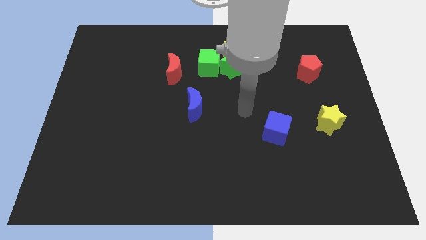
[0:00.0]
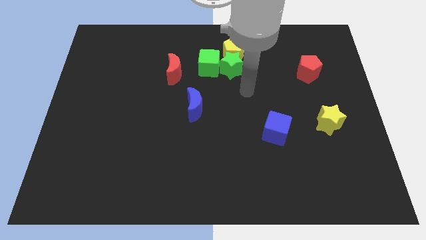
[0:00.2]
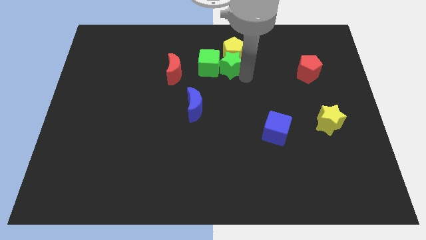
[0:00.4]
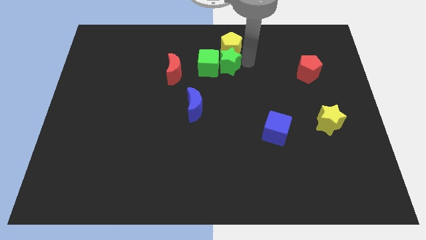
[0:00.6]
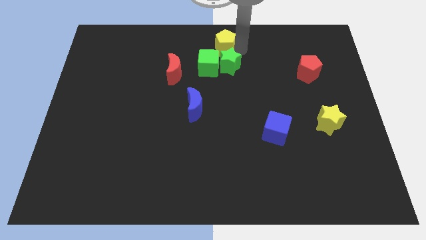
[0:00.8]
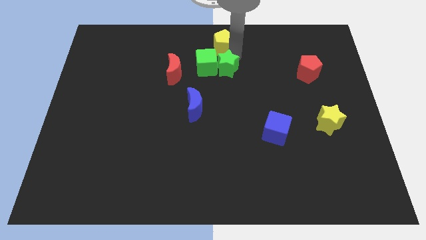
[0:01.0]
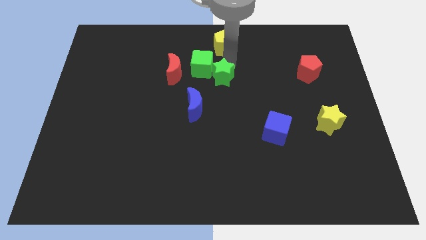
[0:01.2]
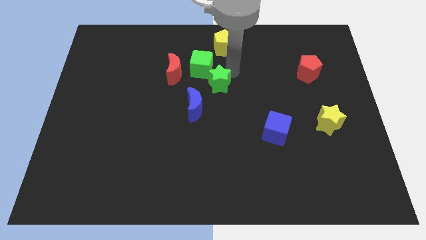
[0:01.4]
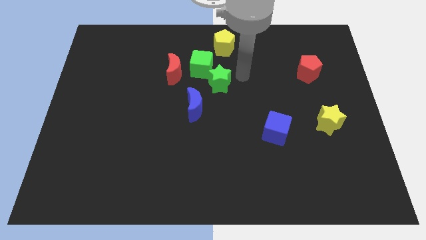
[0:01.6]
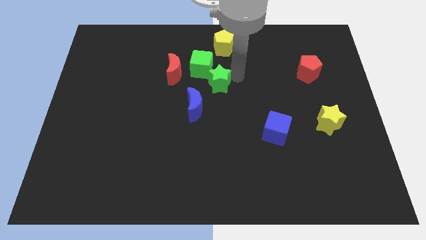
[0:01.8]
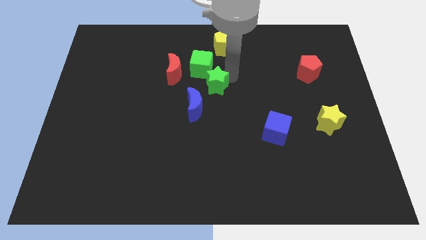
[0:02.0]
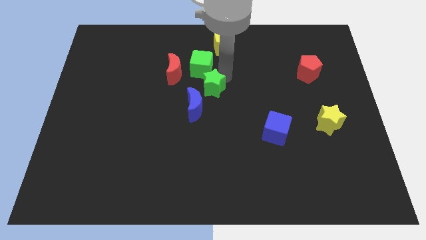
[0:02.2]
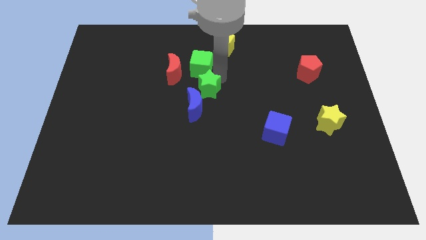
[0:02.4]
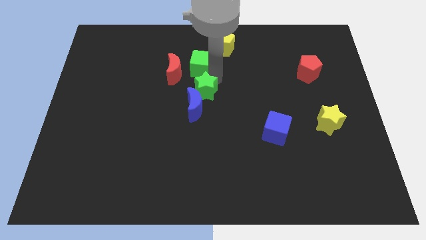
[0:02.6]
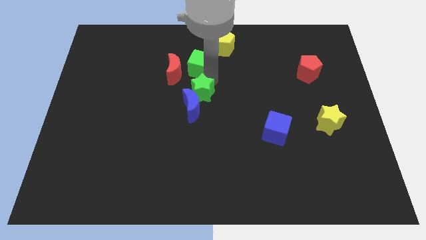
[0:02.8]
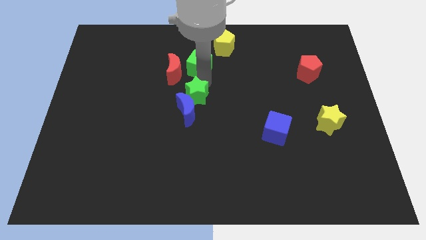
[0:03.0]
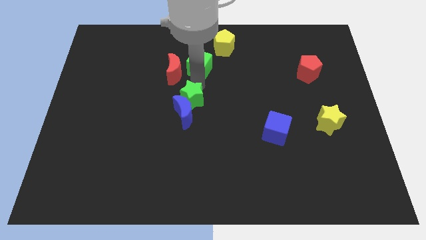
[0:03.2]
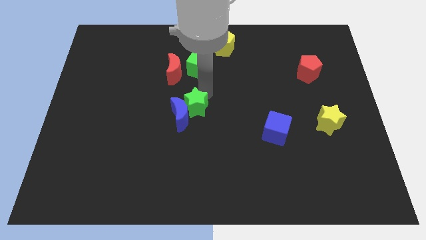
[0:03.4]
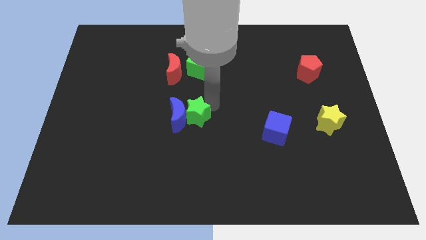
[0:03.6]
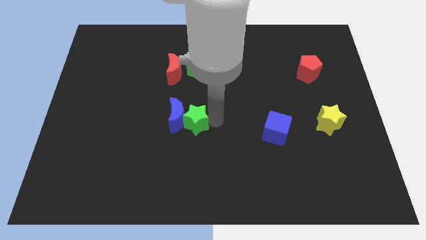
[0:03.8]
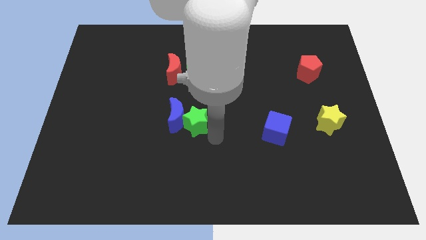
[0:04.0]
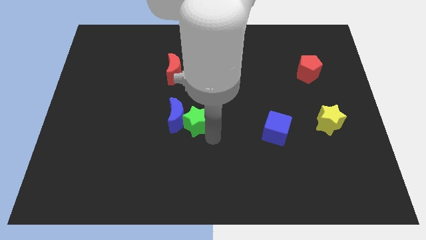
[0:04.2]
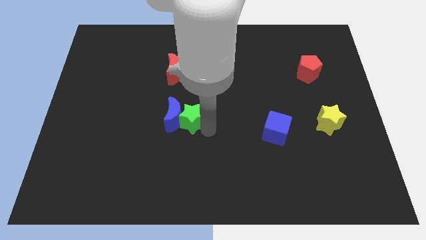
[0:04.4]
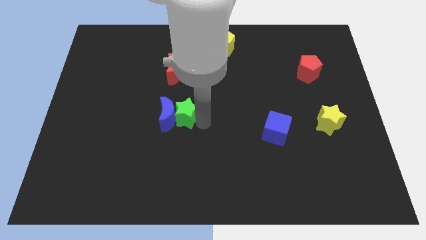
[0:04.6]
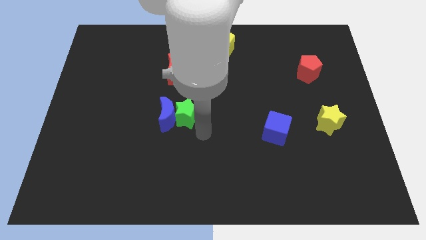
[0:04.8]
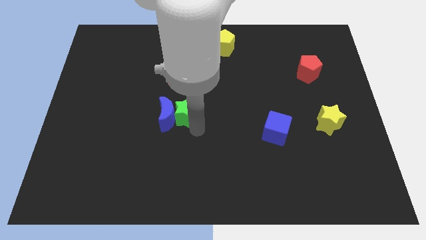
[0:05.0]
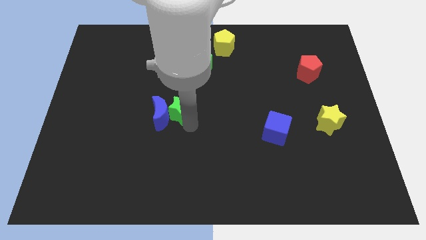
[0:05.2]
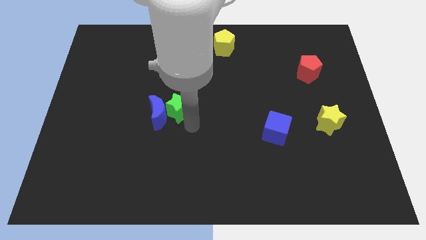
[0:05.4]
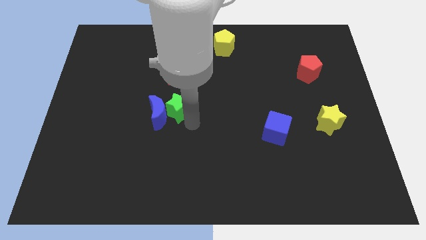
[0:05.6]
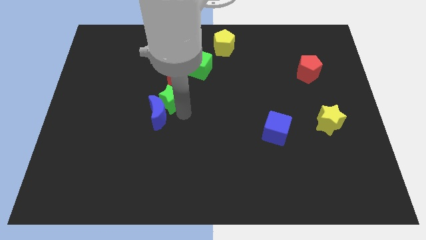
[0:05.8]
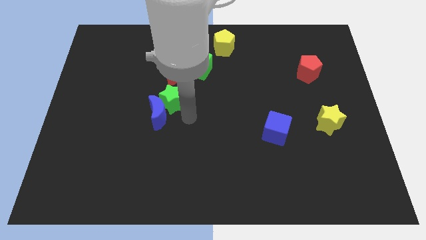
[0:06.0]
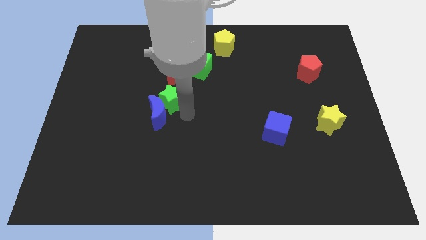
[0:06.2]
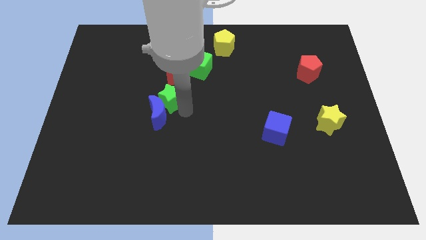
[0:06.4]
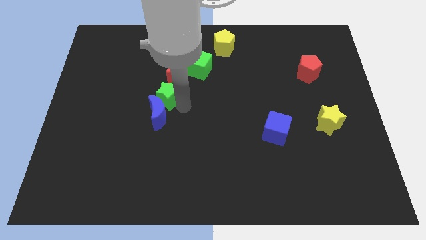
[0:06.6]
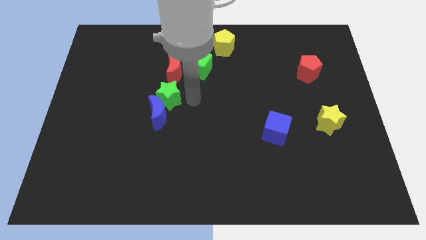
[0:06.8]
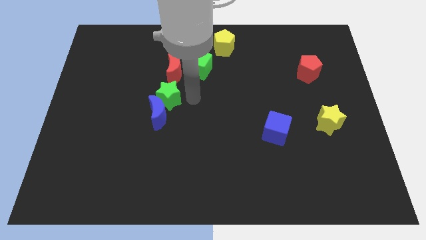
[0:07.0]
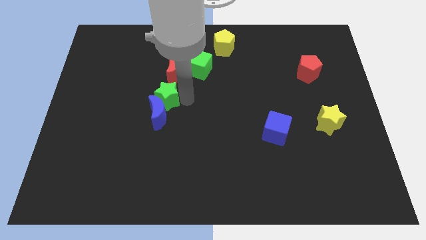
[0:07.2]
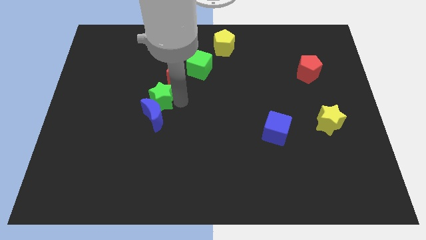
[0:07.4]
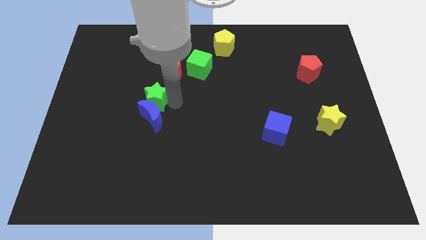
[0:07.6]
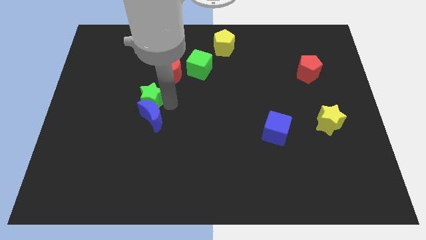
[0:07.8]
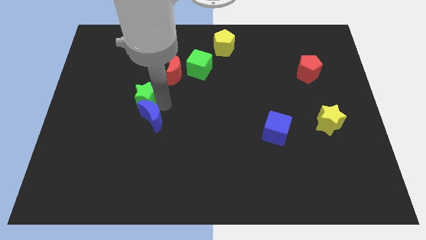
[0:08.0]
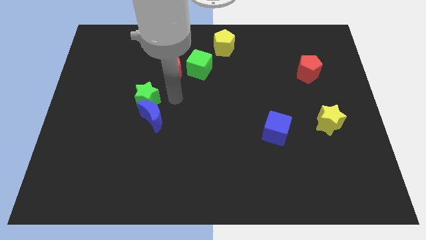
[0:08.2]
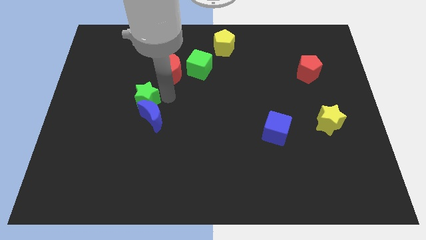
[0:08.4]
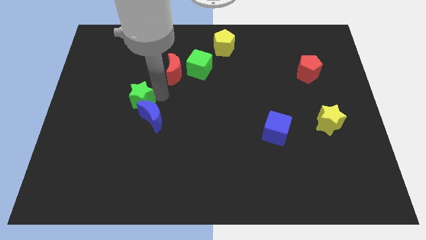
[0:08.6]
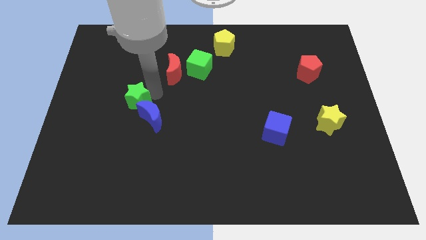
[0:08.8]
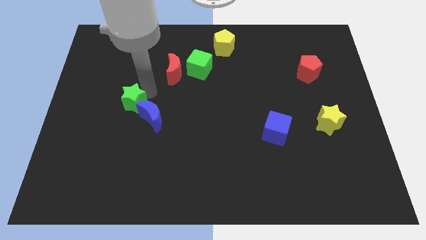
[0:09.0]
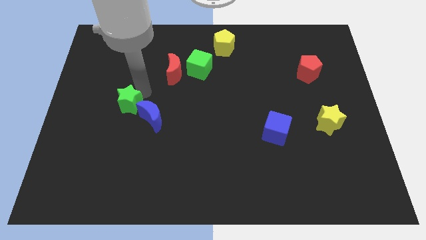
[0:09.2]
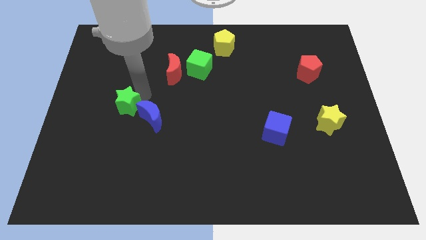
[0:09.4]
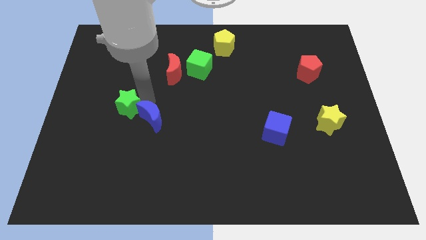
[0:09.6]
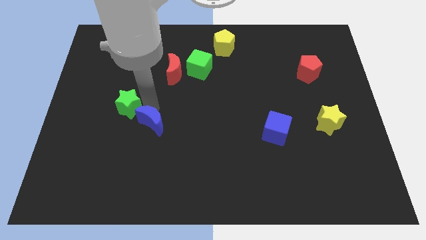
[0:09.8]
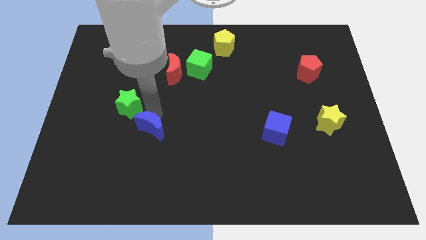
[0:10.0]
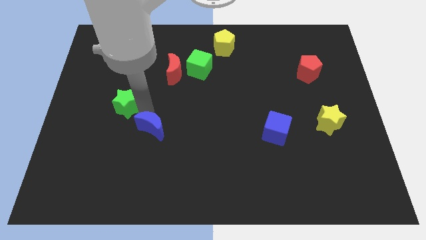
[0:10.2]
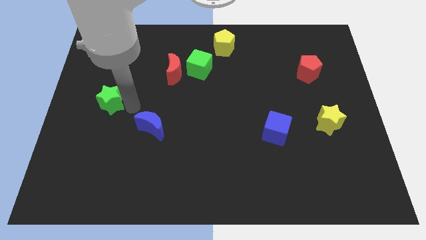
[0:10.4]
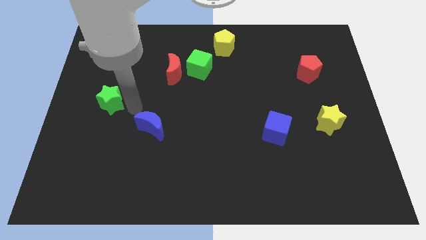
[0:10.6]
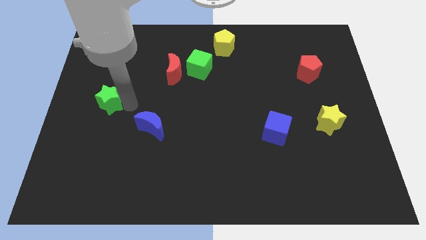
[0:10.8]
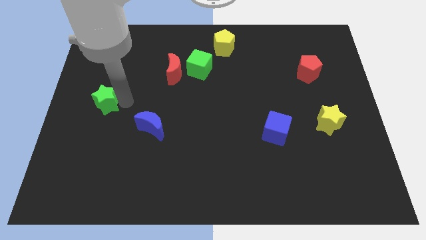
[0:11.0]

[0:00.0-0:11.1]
put the green star to the left side

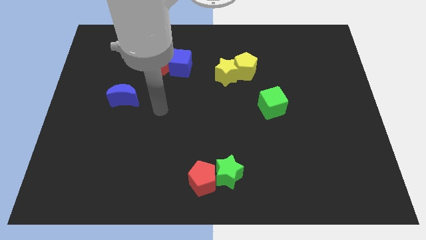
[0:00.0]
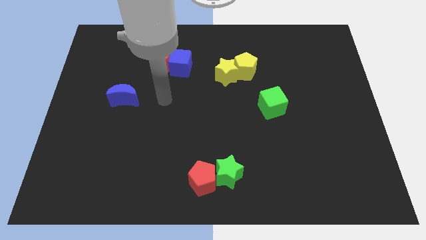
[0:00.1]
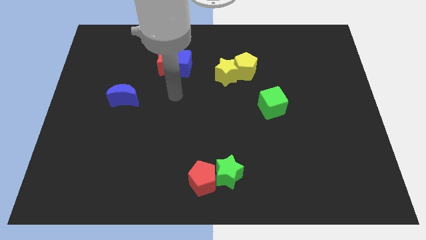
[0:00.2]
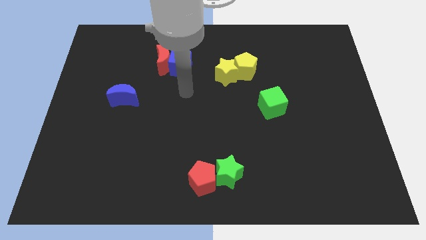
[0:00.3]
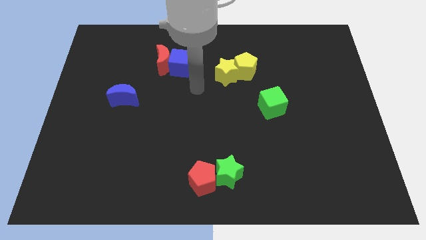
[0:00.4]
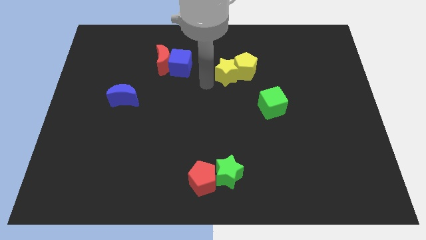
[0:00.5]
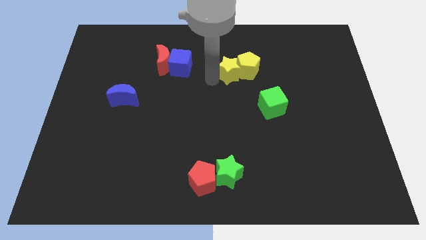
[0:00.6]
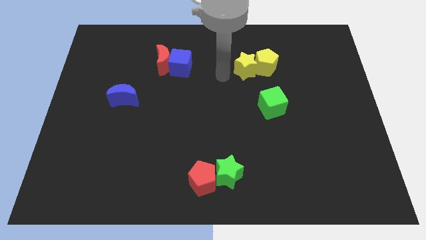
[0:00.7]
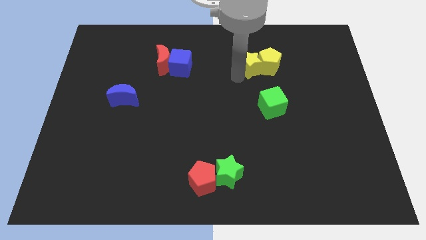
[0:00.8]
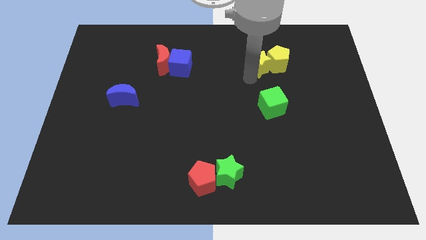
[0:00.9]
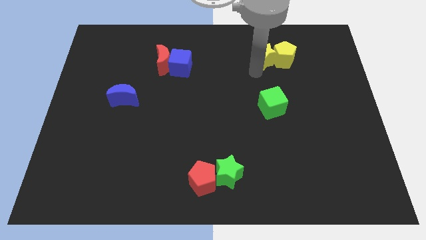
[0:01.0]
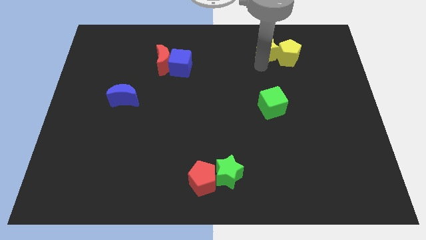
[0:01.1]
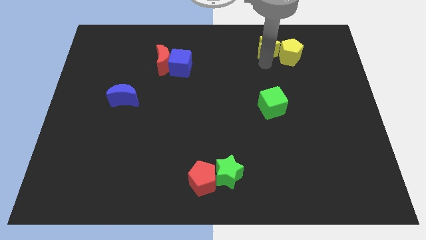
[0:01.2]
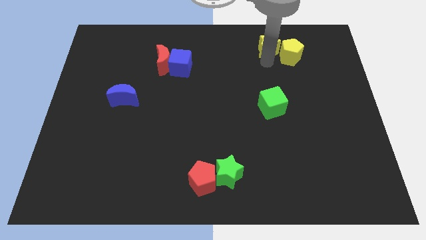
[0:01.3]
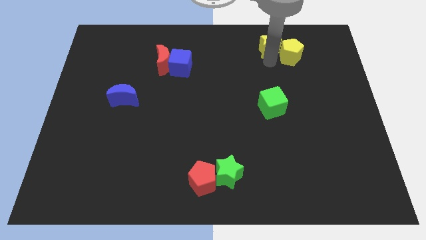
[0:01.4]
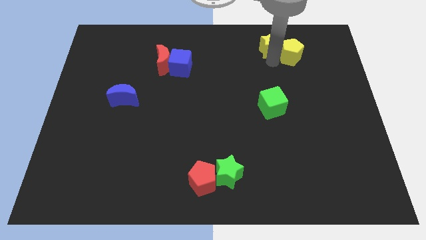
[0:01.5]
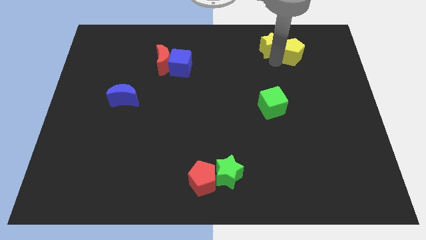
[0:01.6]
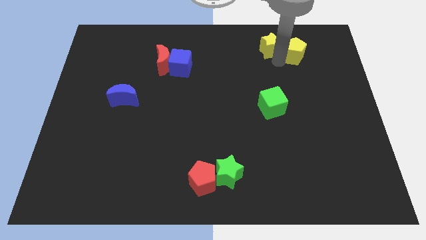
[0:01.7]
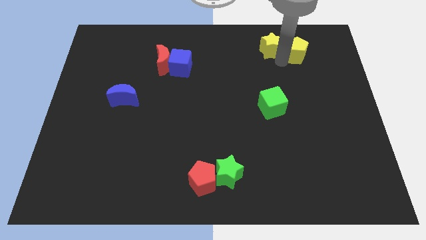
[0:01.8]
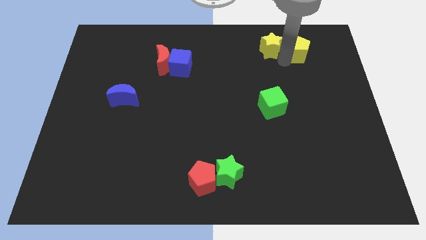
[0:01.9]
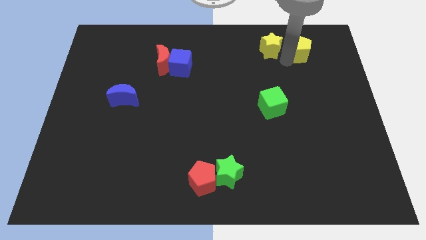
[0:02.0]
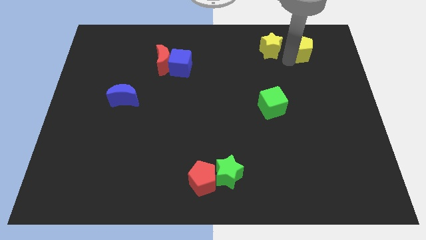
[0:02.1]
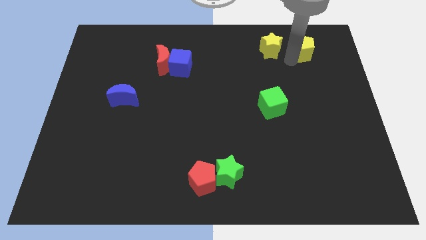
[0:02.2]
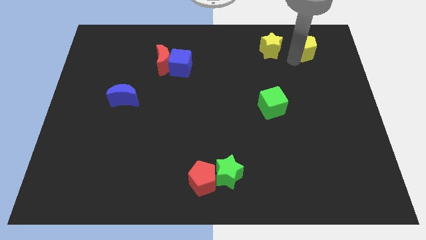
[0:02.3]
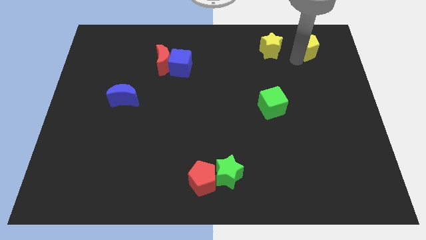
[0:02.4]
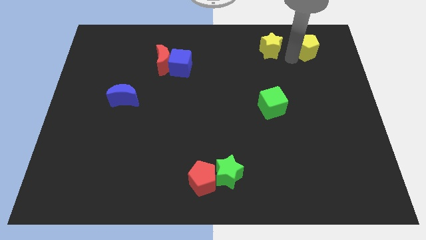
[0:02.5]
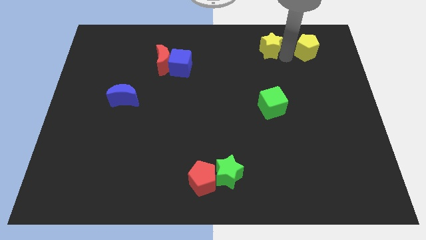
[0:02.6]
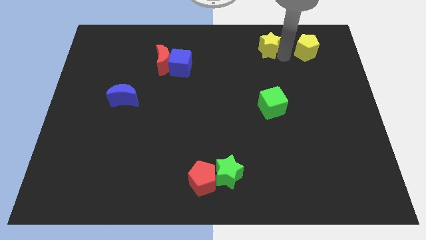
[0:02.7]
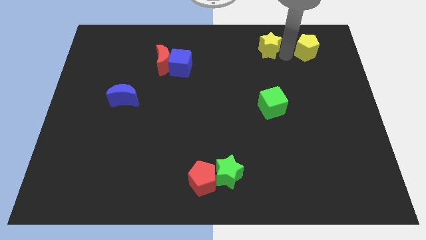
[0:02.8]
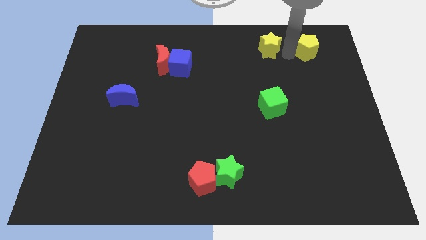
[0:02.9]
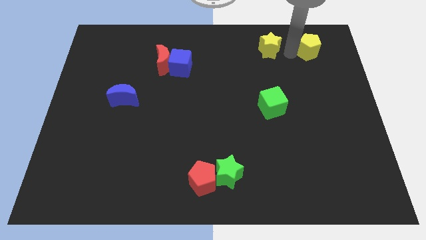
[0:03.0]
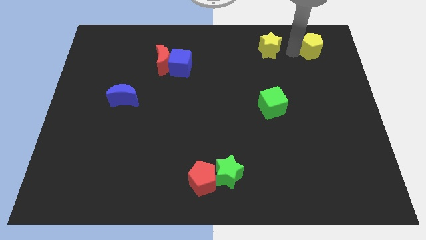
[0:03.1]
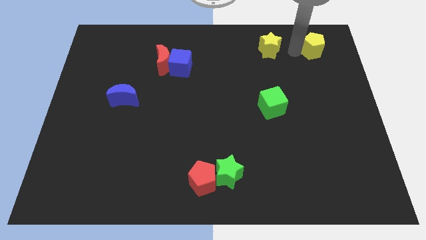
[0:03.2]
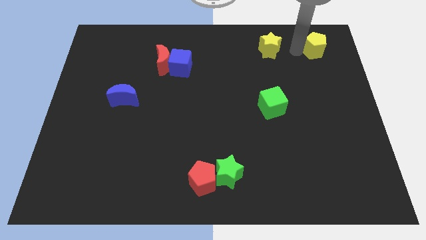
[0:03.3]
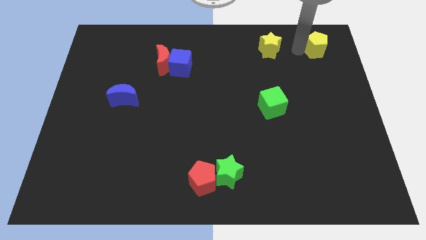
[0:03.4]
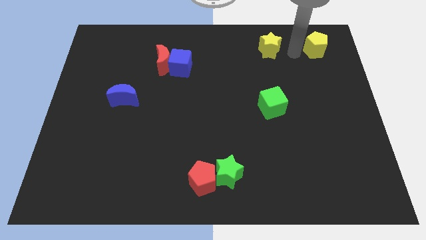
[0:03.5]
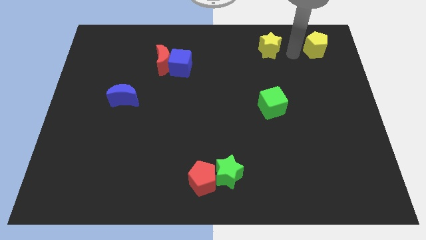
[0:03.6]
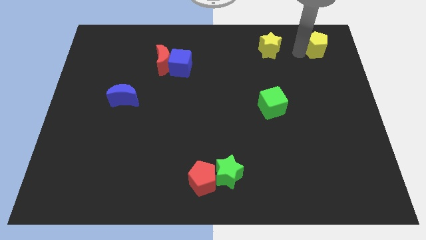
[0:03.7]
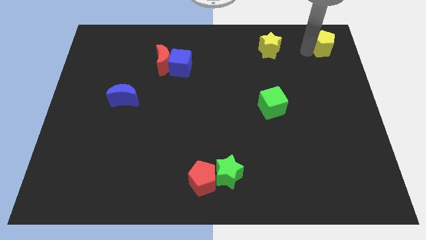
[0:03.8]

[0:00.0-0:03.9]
slide the yellow pentagon to the top right of the board
